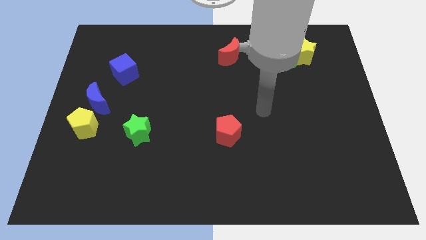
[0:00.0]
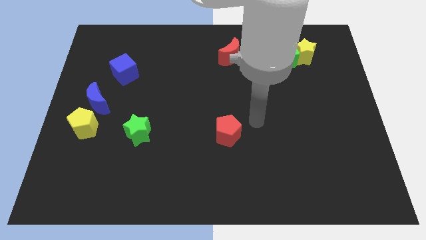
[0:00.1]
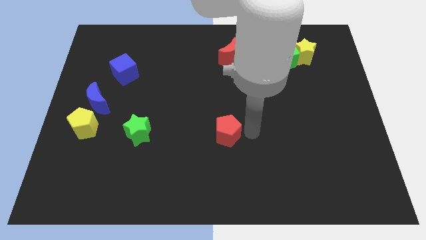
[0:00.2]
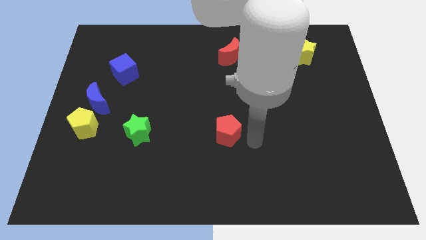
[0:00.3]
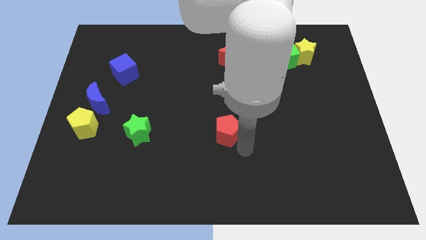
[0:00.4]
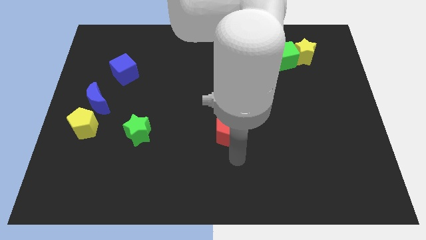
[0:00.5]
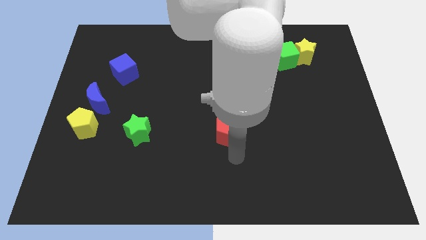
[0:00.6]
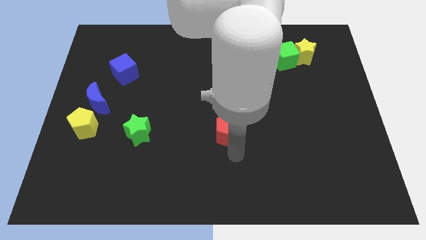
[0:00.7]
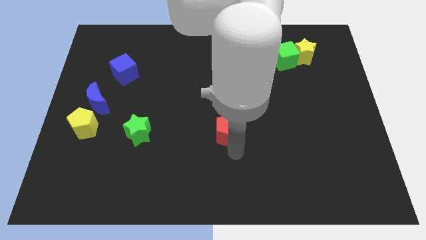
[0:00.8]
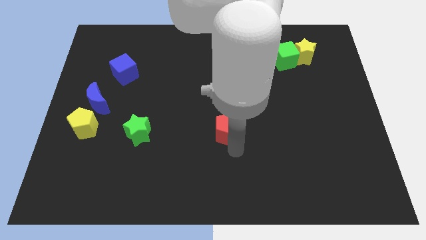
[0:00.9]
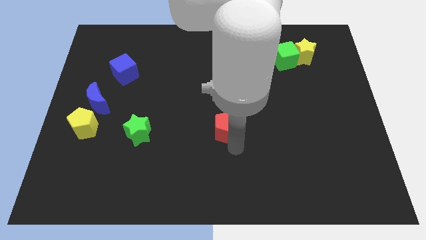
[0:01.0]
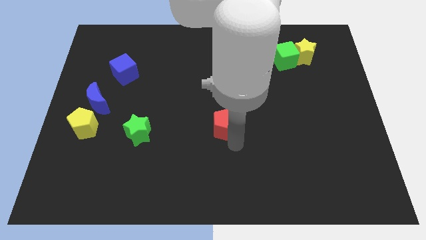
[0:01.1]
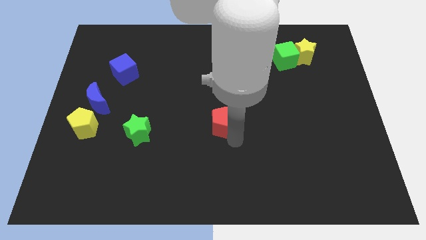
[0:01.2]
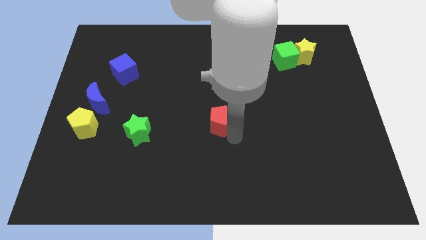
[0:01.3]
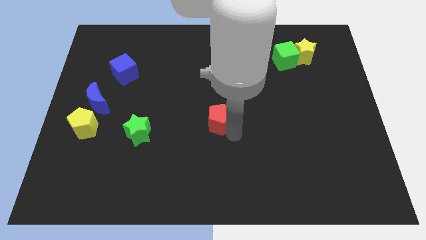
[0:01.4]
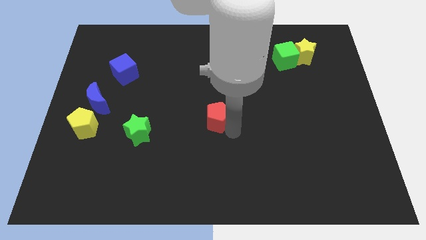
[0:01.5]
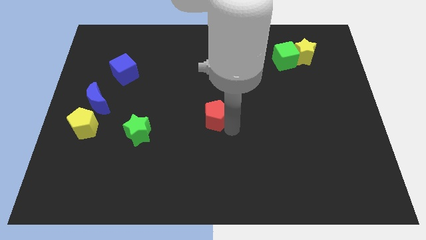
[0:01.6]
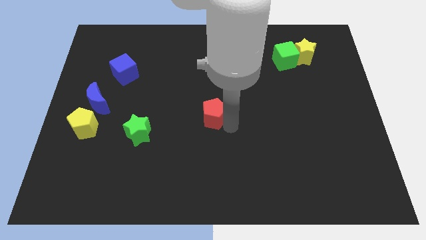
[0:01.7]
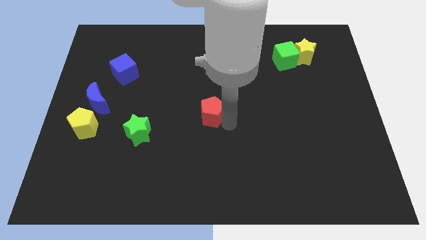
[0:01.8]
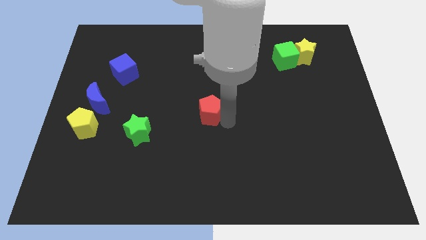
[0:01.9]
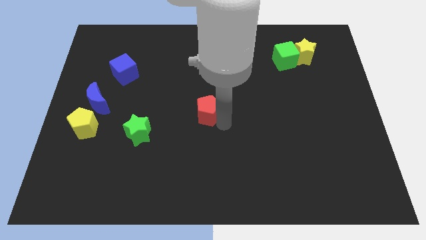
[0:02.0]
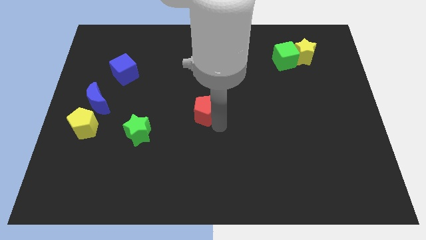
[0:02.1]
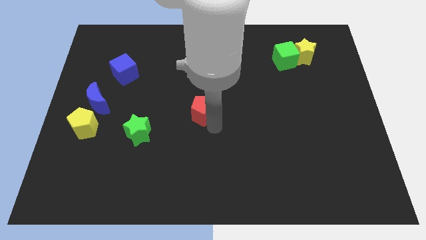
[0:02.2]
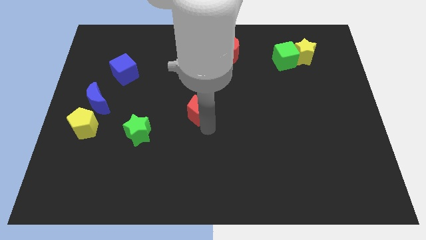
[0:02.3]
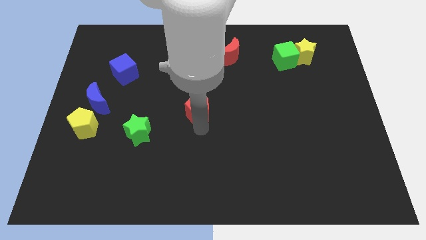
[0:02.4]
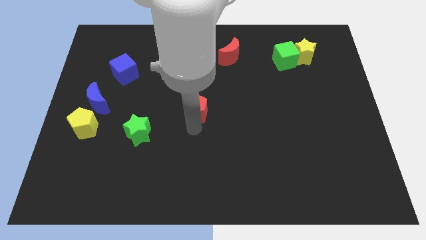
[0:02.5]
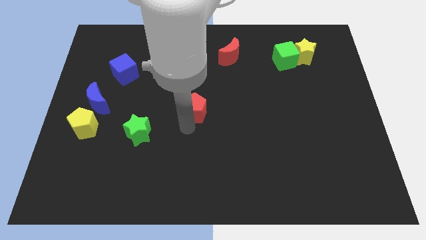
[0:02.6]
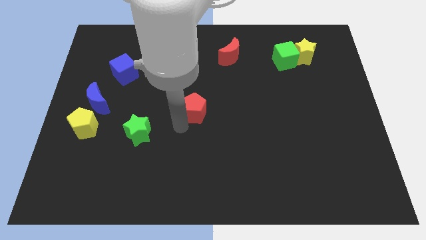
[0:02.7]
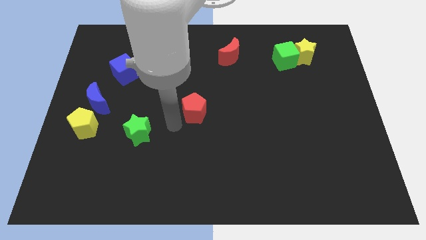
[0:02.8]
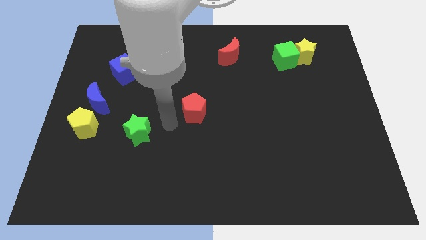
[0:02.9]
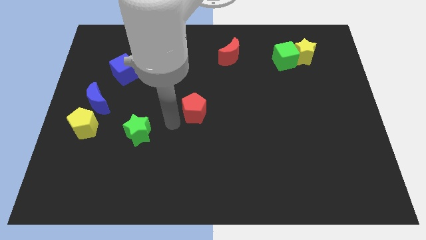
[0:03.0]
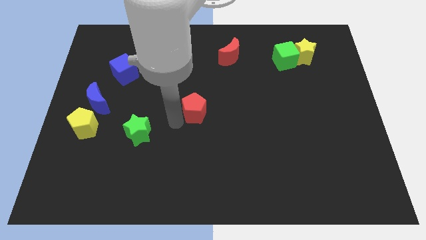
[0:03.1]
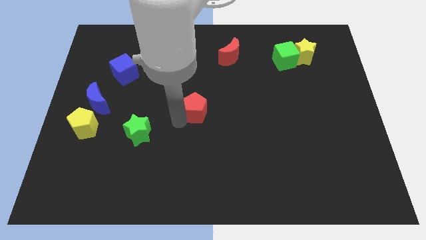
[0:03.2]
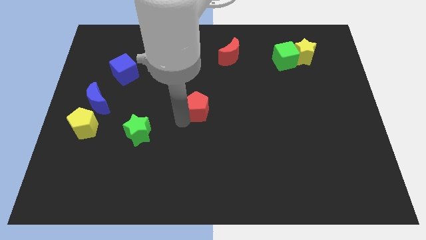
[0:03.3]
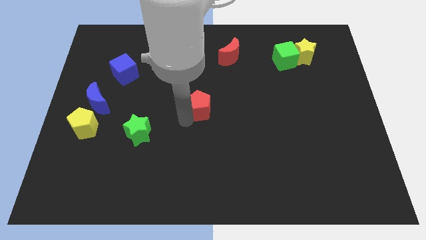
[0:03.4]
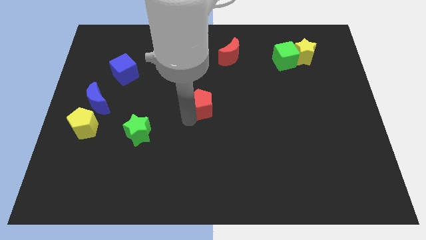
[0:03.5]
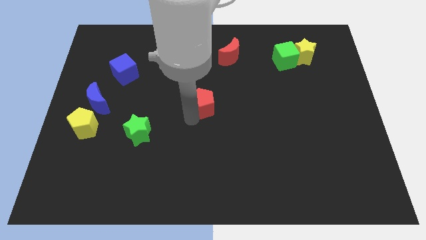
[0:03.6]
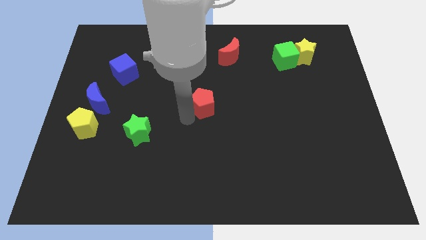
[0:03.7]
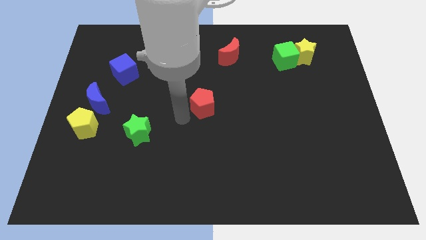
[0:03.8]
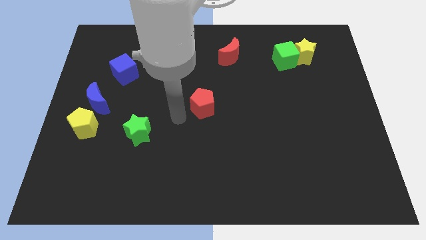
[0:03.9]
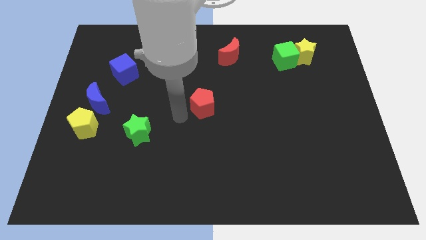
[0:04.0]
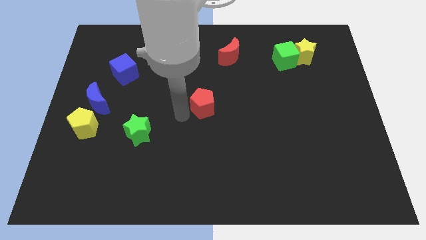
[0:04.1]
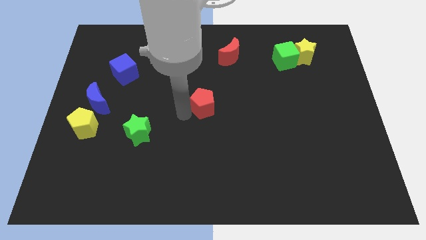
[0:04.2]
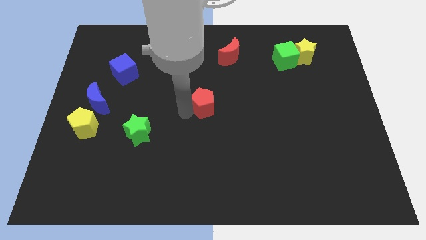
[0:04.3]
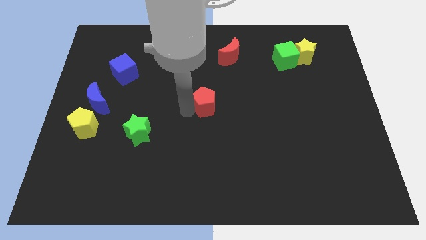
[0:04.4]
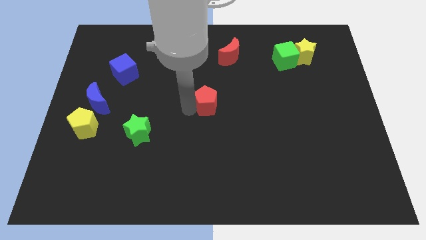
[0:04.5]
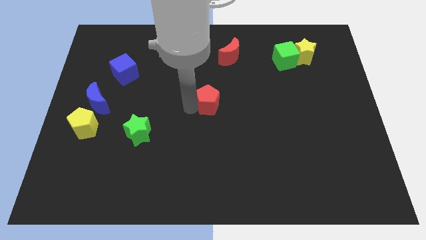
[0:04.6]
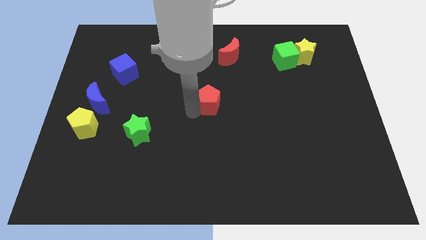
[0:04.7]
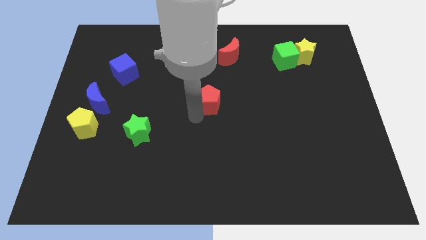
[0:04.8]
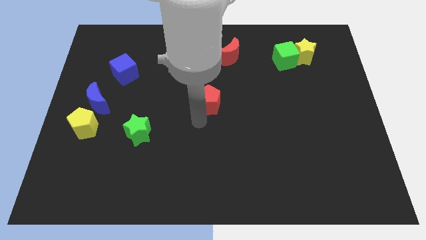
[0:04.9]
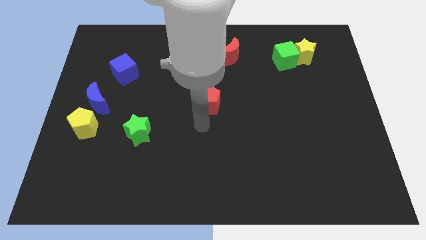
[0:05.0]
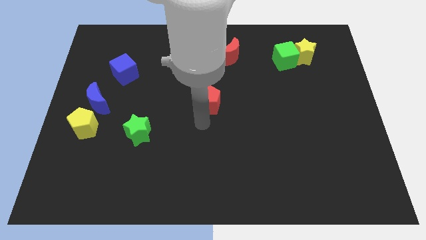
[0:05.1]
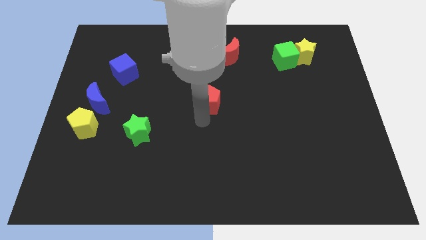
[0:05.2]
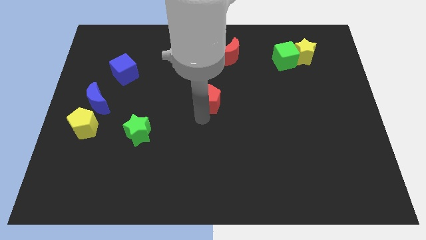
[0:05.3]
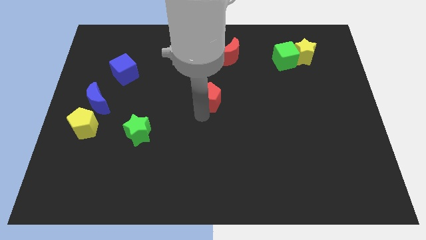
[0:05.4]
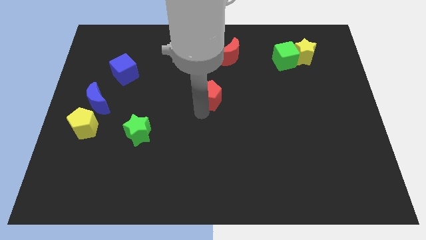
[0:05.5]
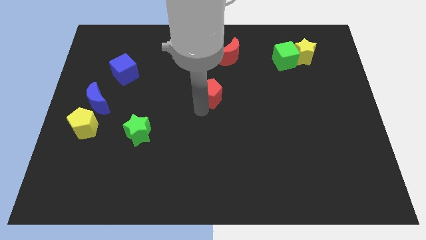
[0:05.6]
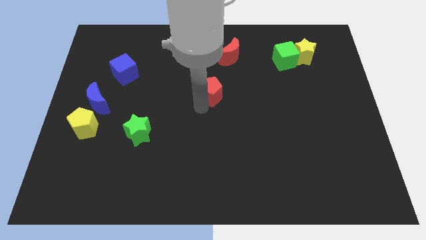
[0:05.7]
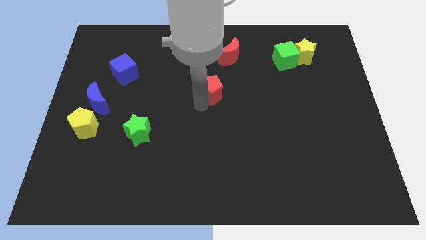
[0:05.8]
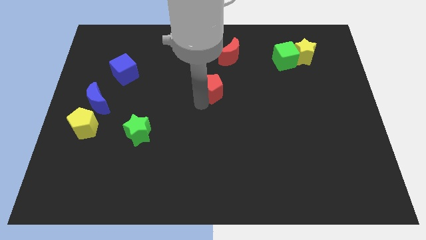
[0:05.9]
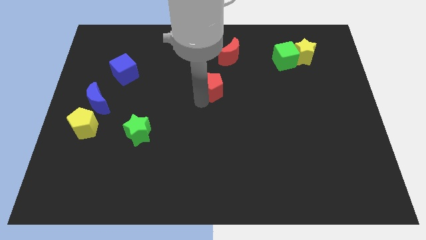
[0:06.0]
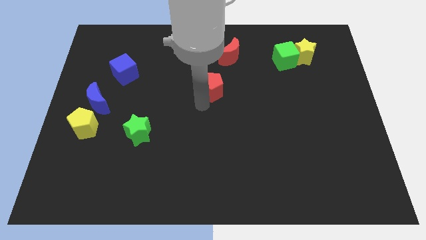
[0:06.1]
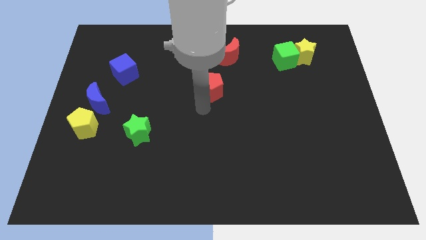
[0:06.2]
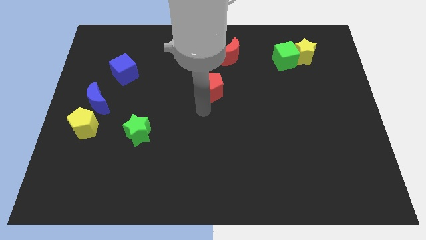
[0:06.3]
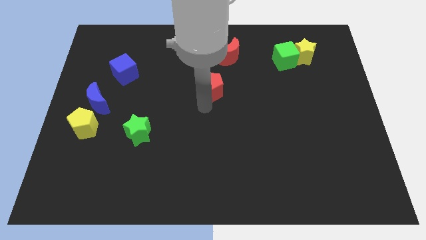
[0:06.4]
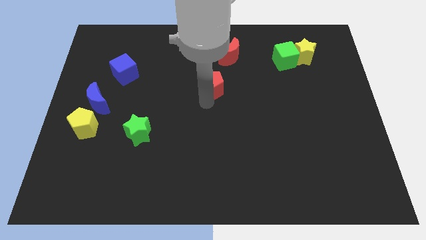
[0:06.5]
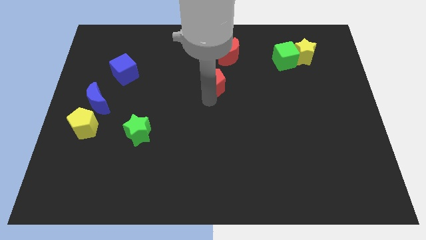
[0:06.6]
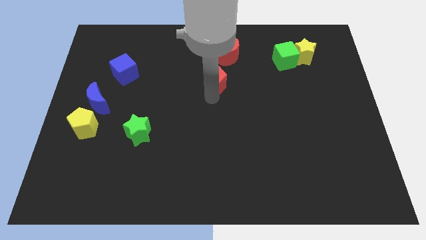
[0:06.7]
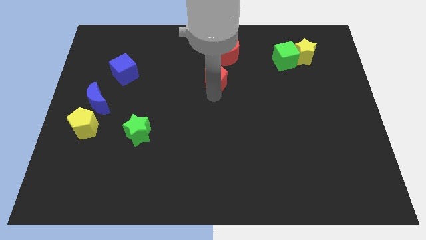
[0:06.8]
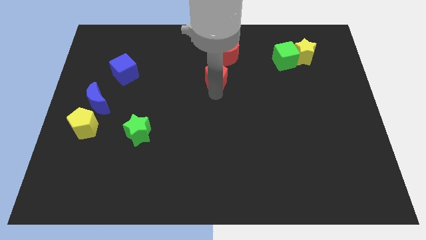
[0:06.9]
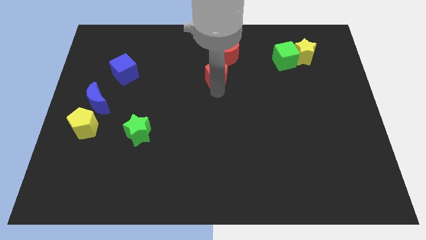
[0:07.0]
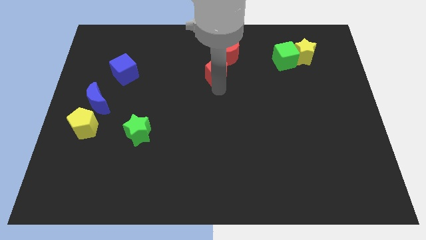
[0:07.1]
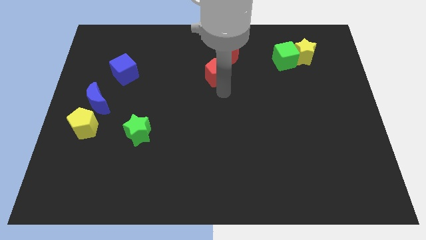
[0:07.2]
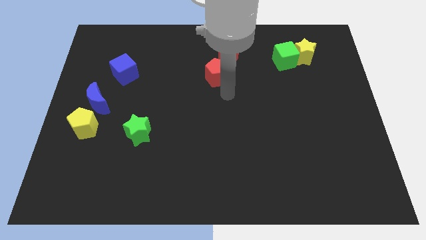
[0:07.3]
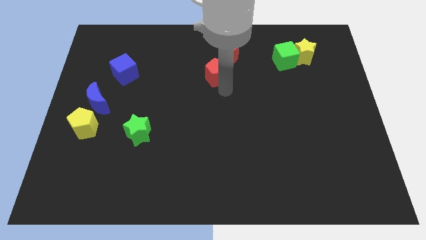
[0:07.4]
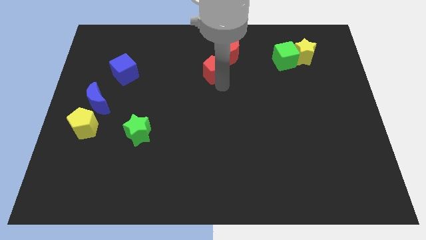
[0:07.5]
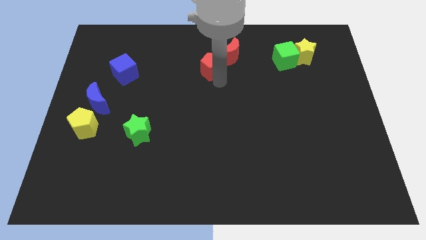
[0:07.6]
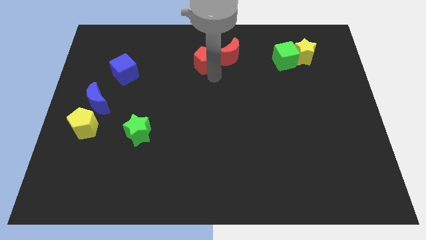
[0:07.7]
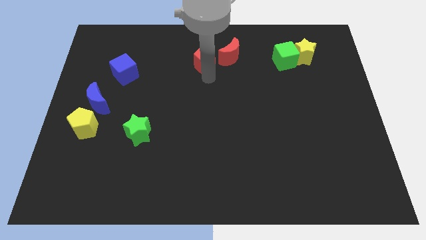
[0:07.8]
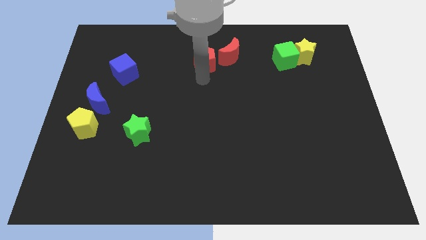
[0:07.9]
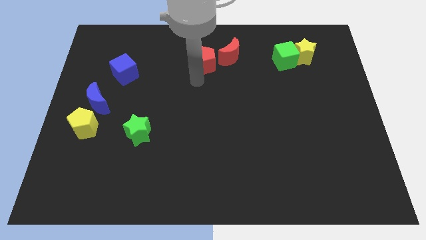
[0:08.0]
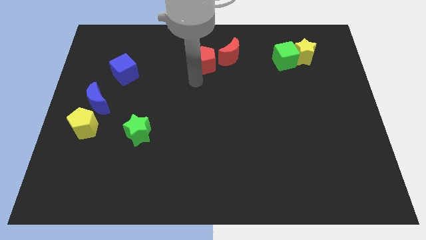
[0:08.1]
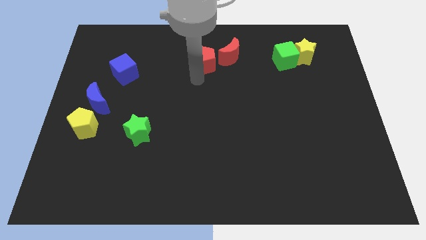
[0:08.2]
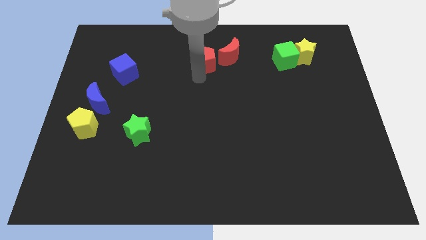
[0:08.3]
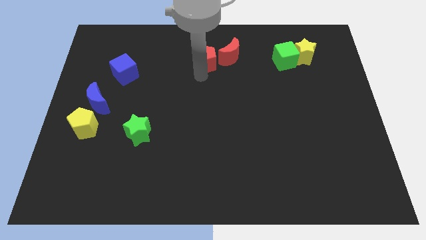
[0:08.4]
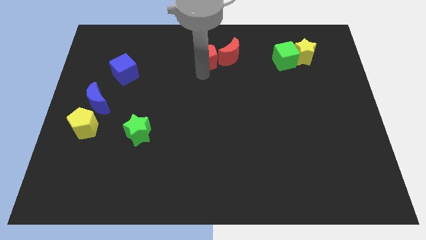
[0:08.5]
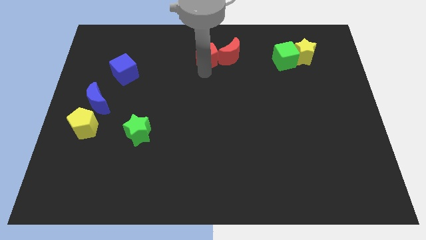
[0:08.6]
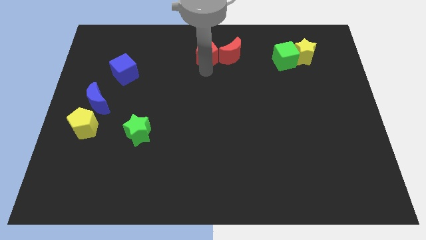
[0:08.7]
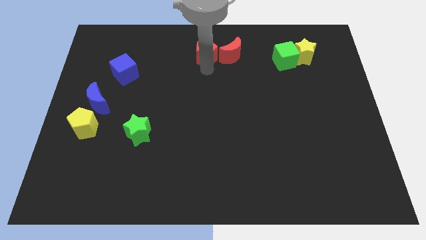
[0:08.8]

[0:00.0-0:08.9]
slide the red pentagon to the top side
